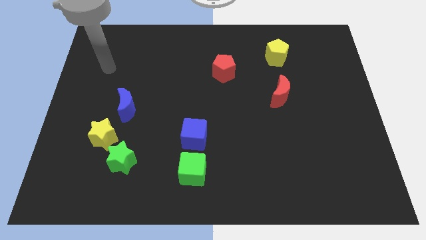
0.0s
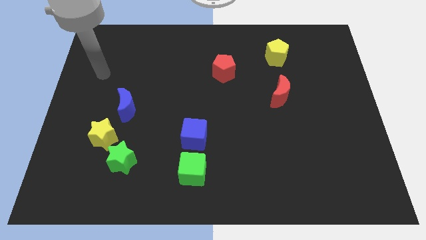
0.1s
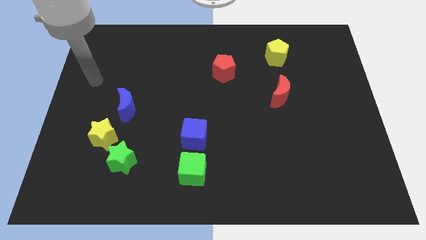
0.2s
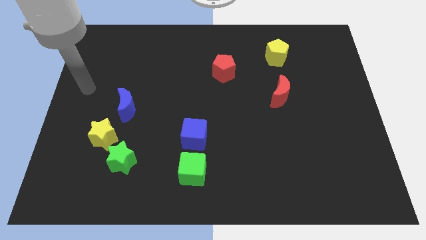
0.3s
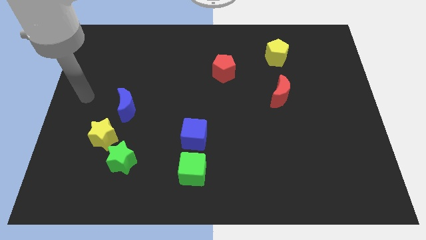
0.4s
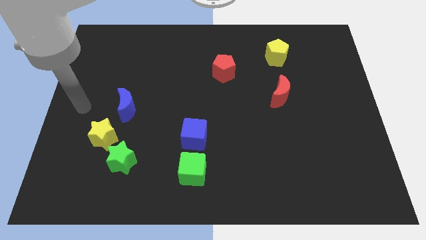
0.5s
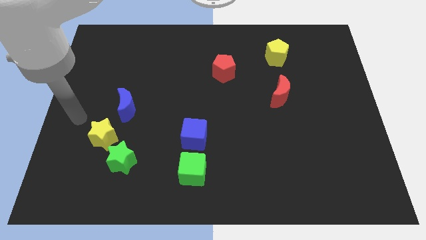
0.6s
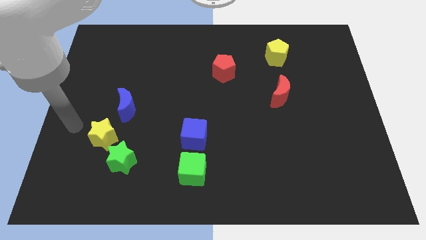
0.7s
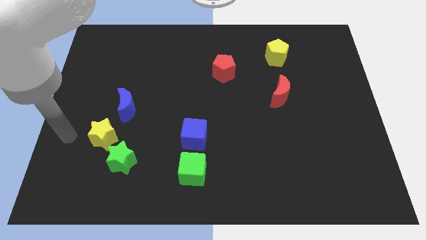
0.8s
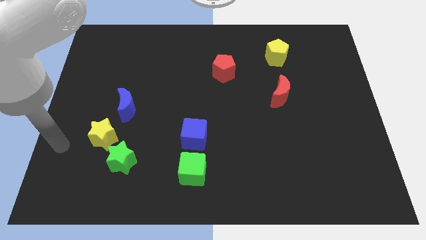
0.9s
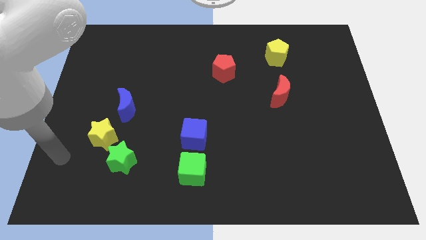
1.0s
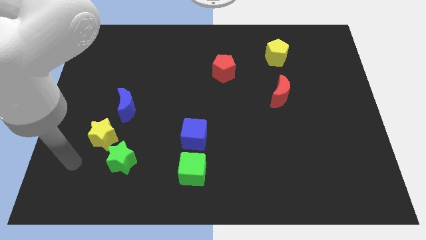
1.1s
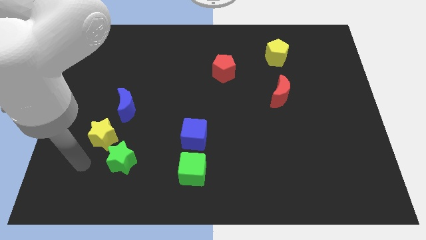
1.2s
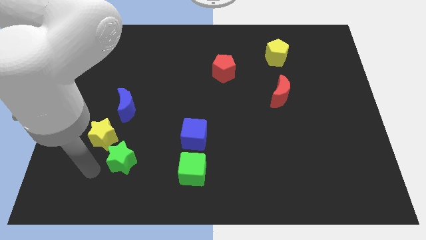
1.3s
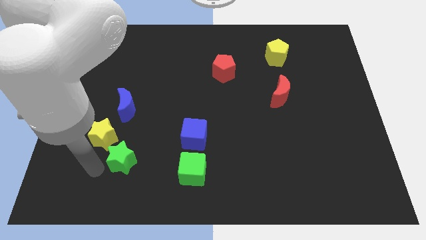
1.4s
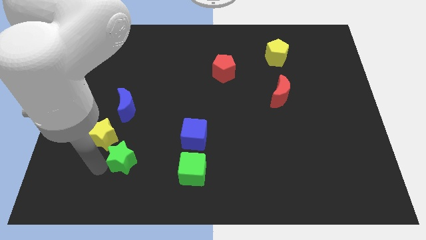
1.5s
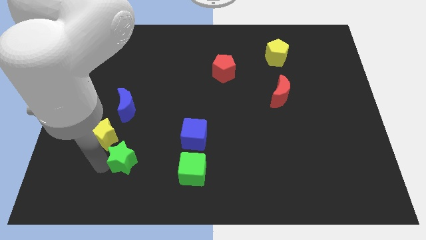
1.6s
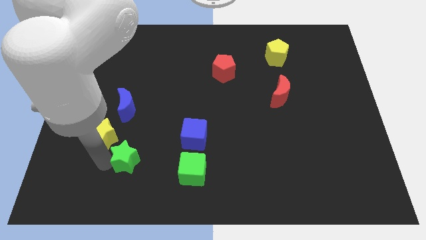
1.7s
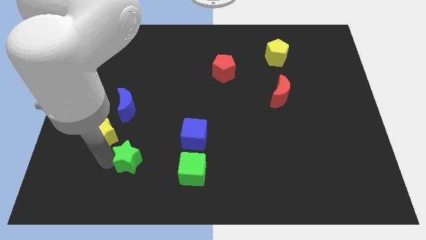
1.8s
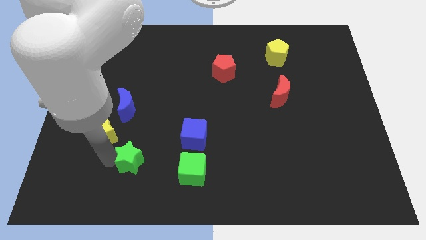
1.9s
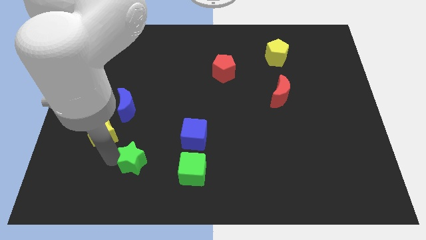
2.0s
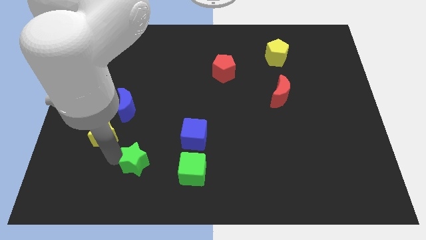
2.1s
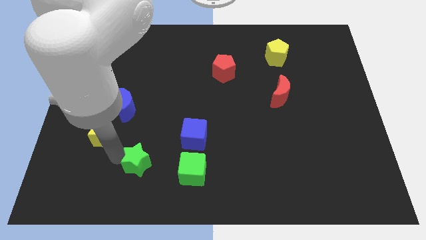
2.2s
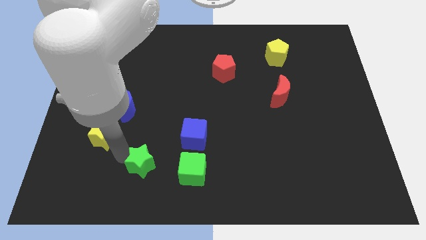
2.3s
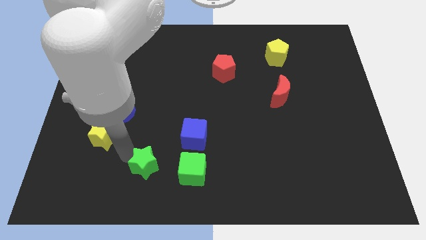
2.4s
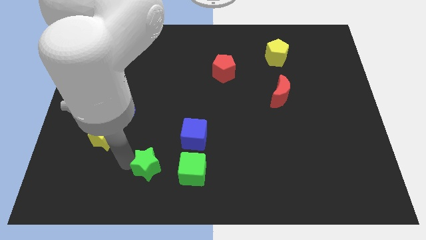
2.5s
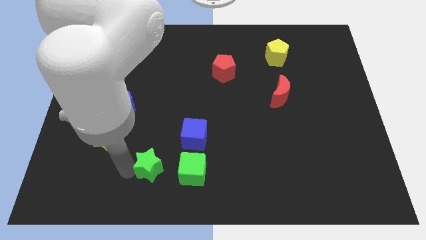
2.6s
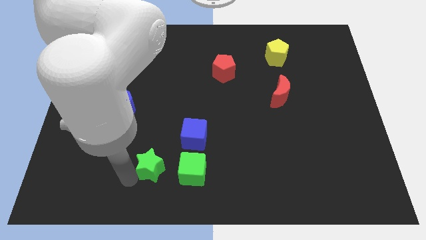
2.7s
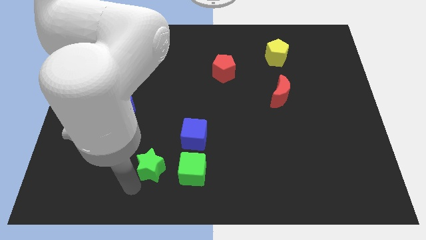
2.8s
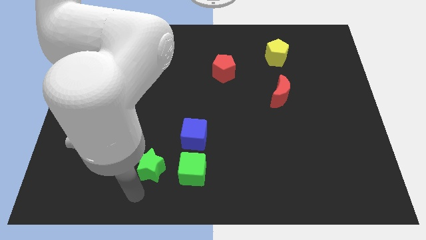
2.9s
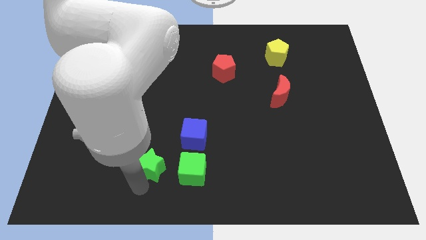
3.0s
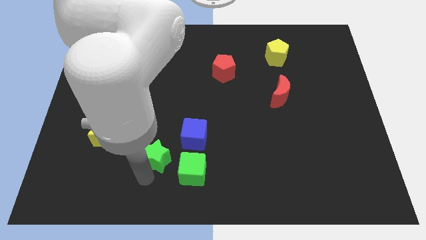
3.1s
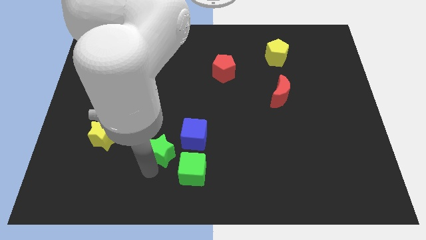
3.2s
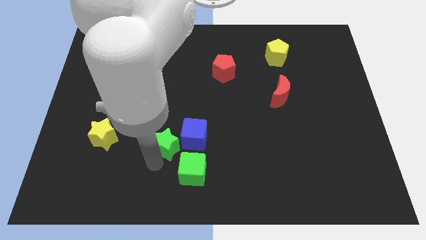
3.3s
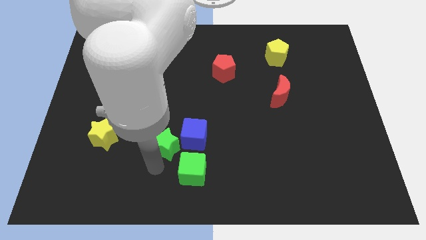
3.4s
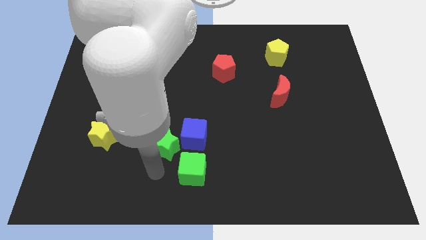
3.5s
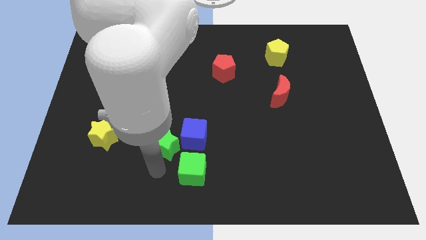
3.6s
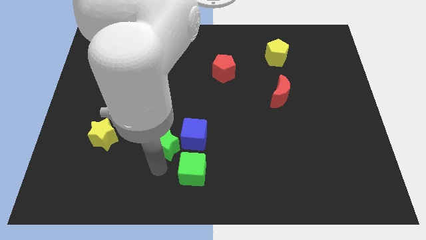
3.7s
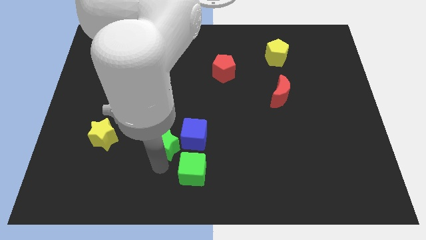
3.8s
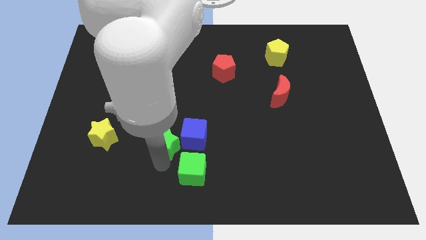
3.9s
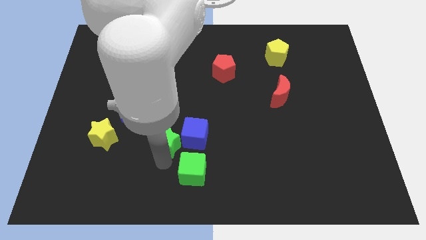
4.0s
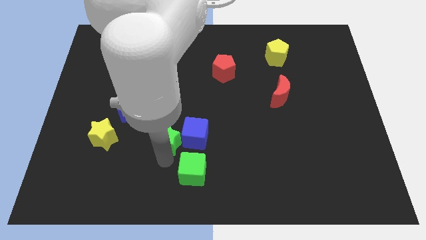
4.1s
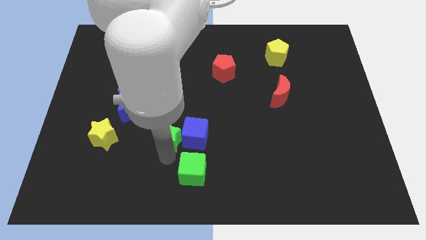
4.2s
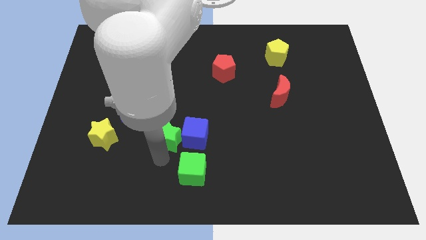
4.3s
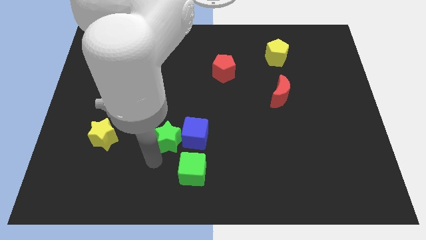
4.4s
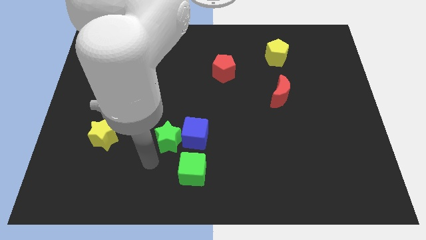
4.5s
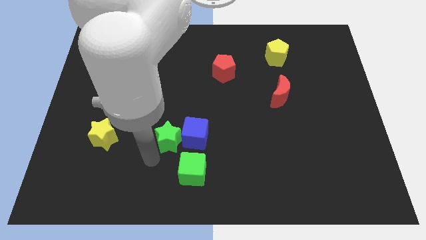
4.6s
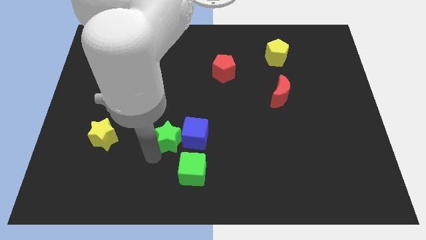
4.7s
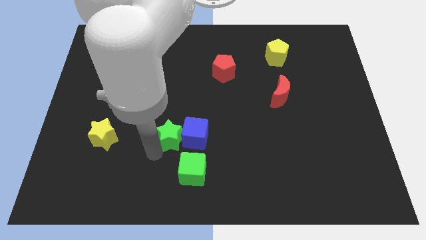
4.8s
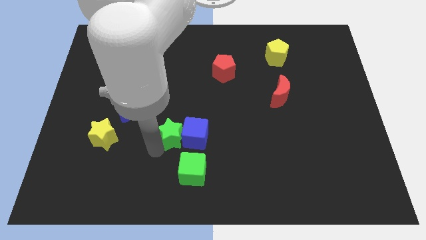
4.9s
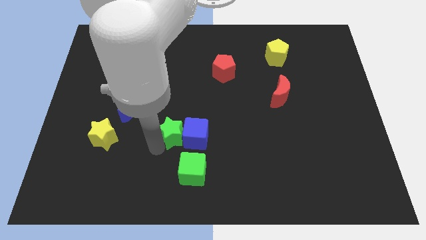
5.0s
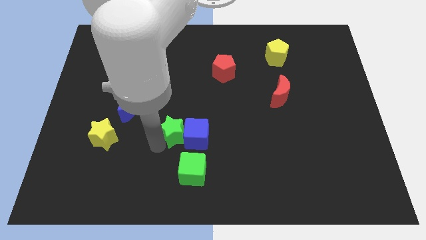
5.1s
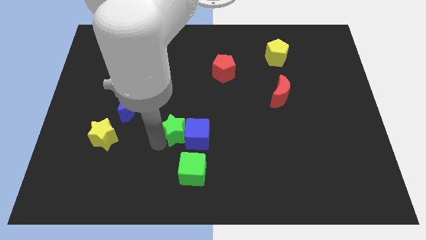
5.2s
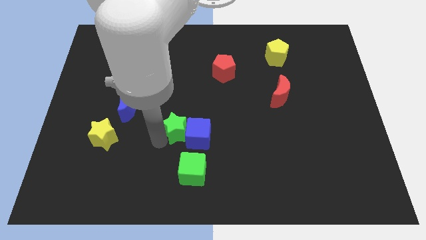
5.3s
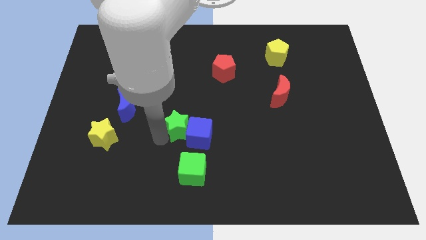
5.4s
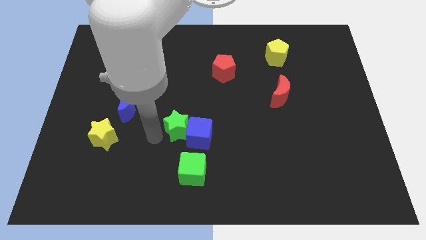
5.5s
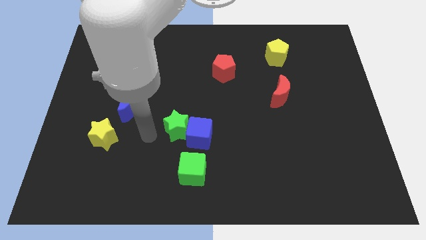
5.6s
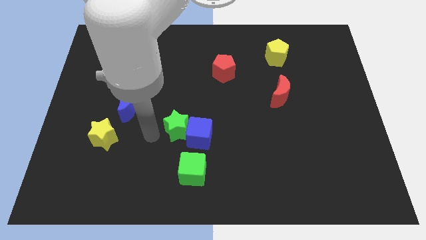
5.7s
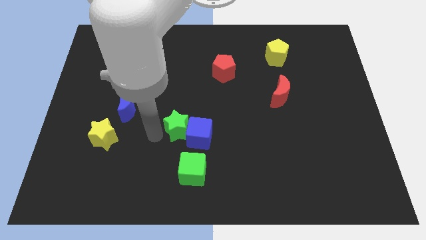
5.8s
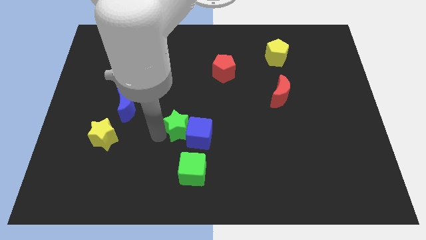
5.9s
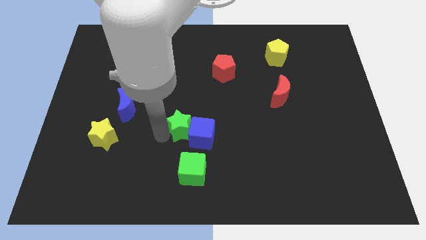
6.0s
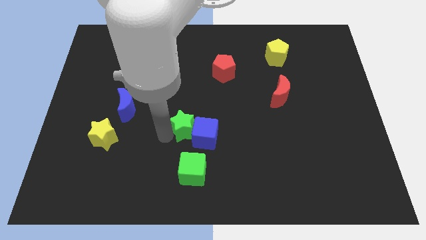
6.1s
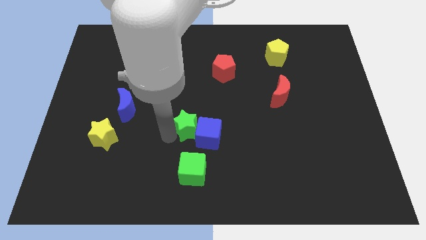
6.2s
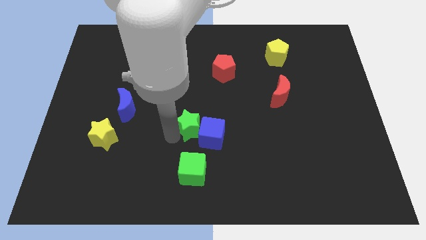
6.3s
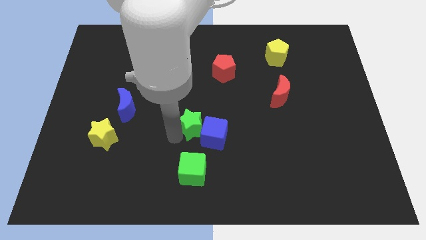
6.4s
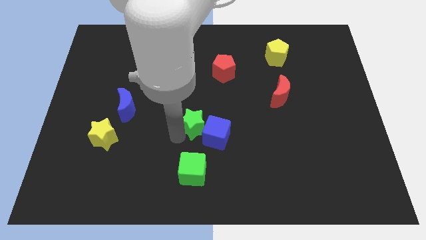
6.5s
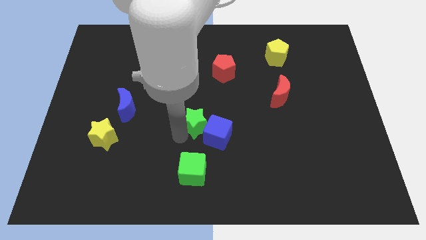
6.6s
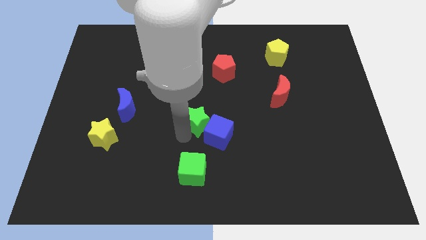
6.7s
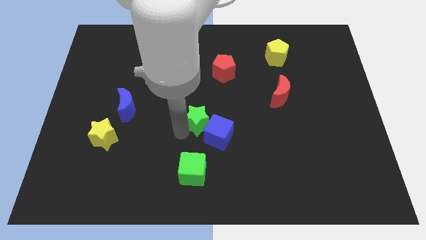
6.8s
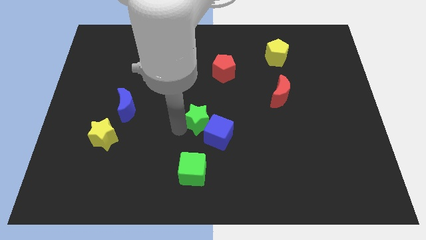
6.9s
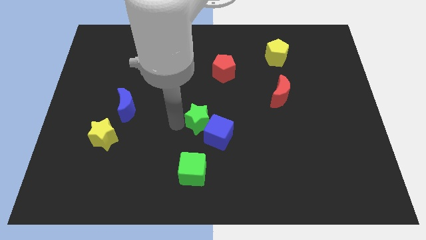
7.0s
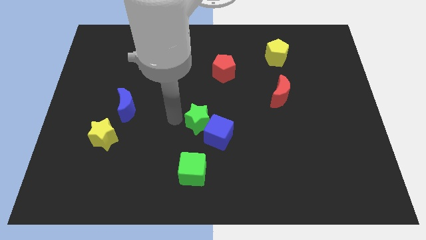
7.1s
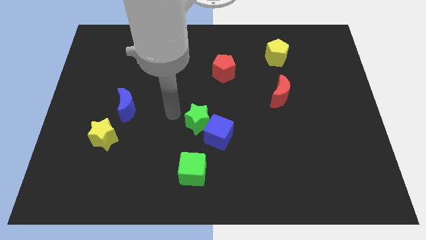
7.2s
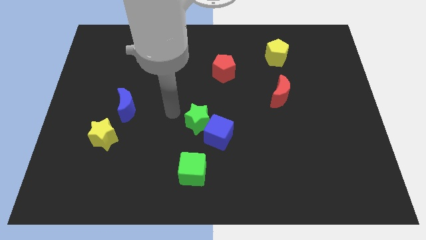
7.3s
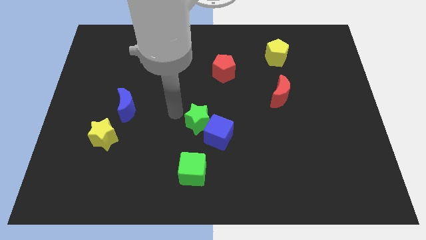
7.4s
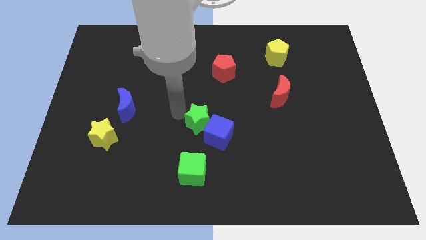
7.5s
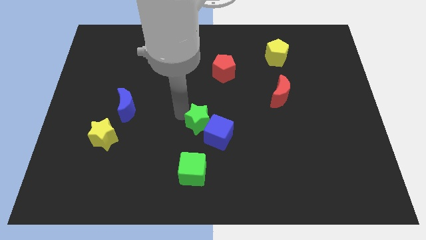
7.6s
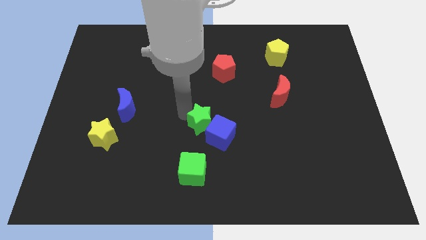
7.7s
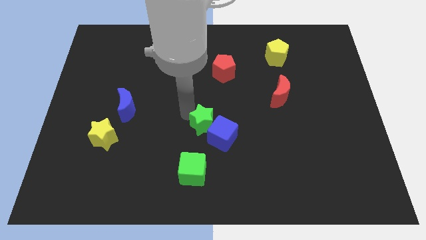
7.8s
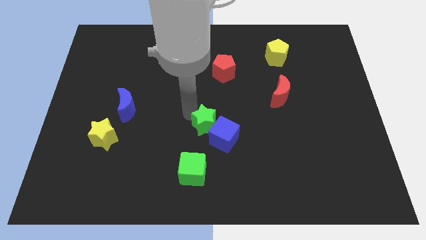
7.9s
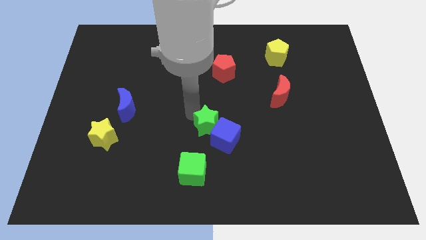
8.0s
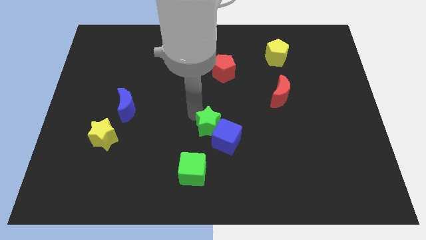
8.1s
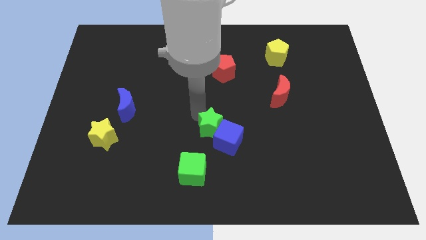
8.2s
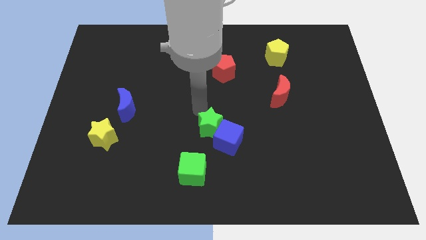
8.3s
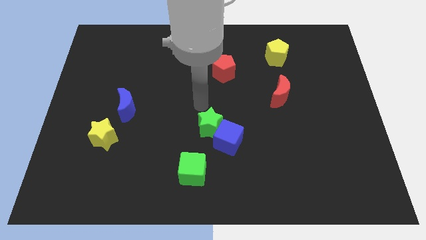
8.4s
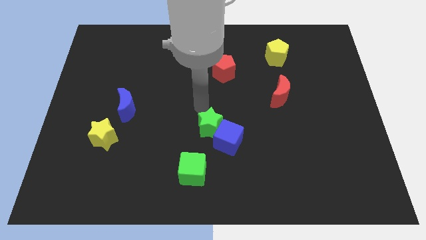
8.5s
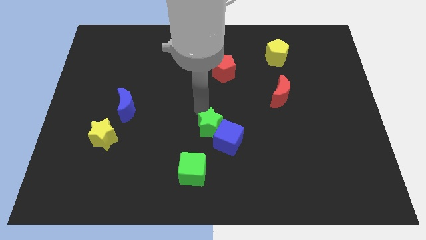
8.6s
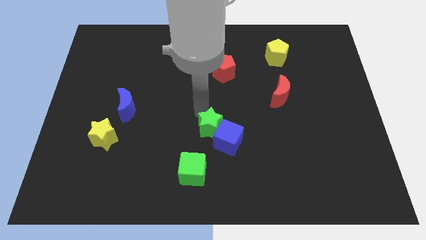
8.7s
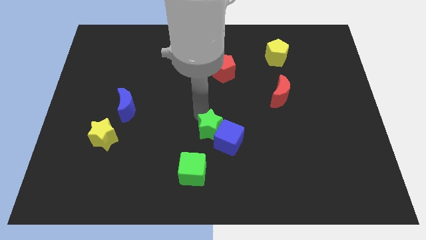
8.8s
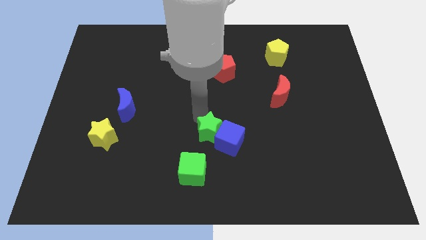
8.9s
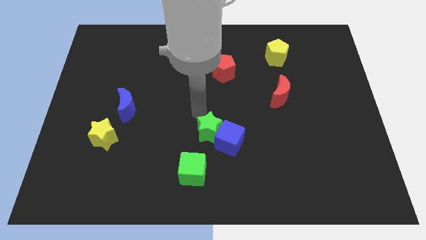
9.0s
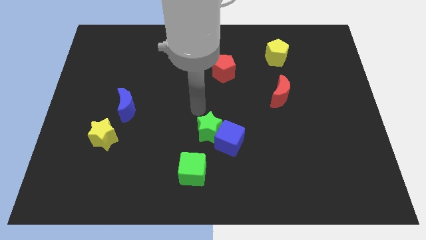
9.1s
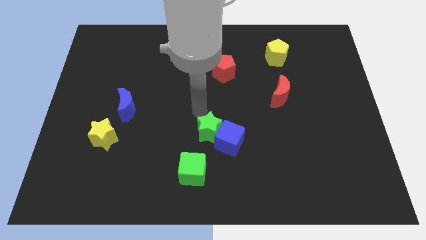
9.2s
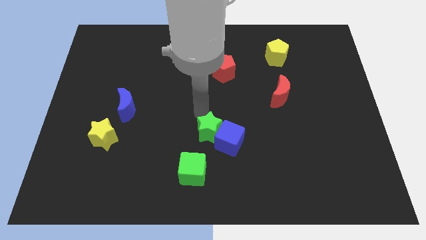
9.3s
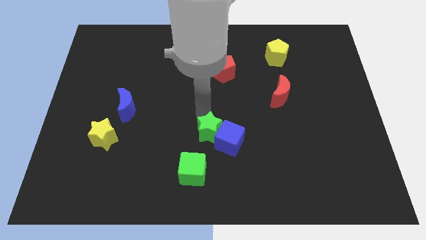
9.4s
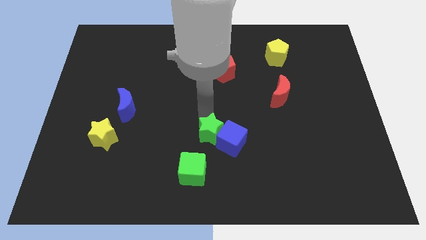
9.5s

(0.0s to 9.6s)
put the green star to the top right side of the green cube
